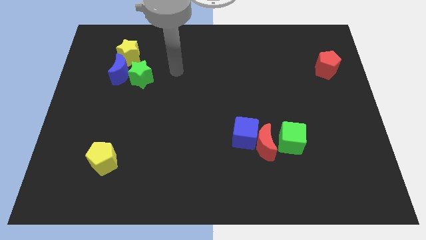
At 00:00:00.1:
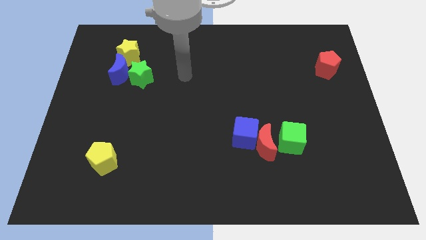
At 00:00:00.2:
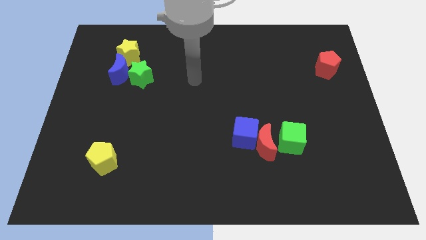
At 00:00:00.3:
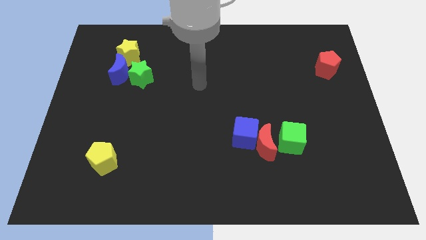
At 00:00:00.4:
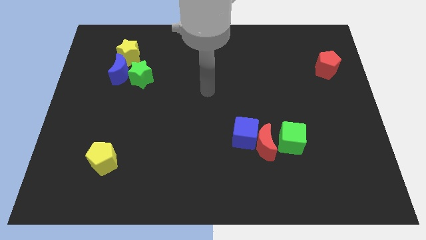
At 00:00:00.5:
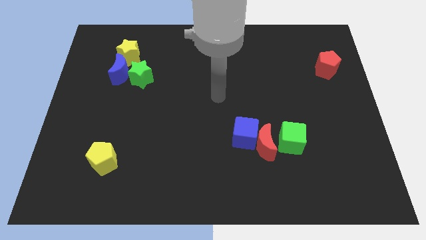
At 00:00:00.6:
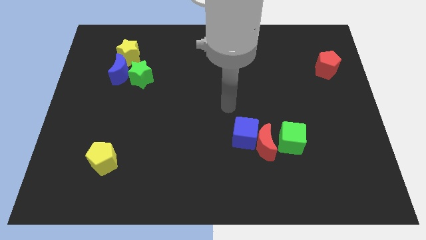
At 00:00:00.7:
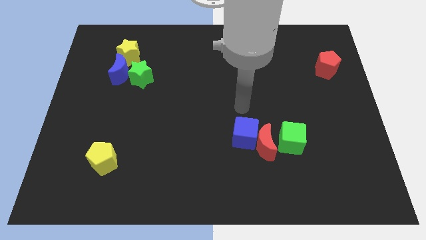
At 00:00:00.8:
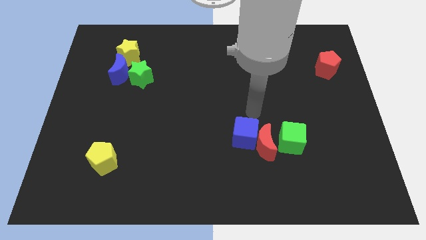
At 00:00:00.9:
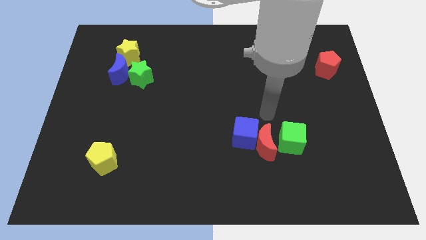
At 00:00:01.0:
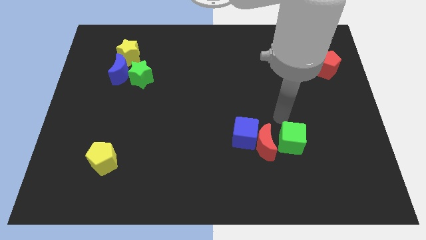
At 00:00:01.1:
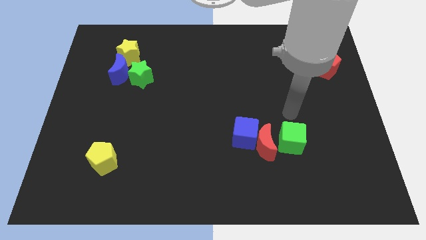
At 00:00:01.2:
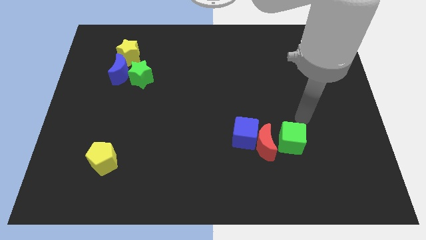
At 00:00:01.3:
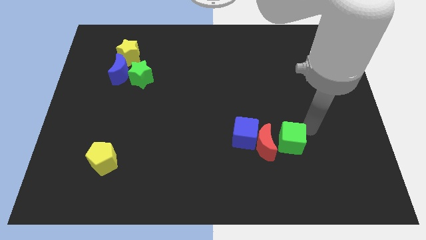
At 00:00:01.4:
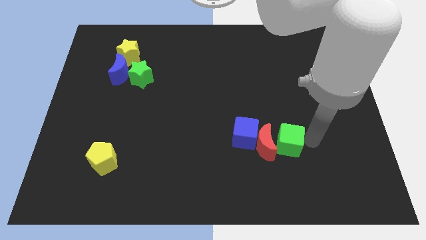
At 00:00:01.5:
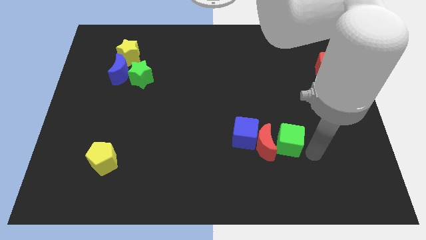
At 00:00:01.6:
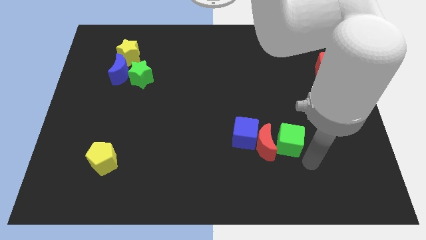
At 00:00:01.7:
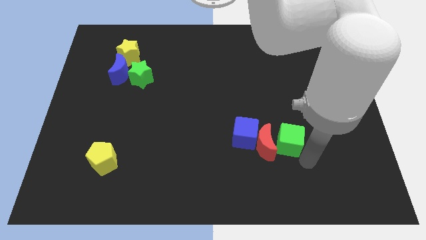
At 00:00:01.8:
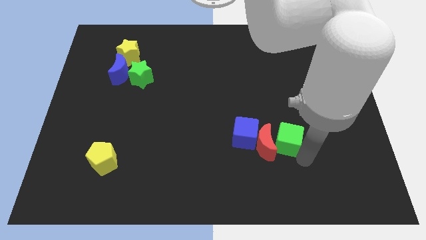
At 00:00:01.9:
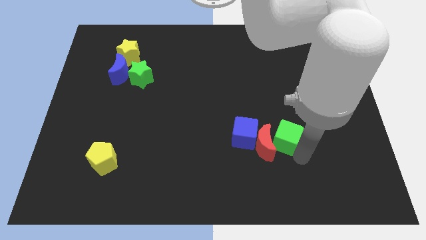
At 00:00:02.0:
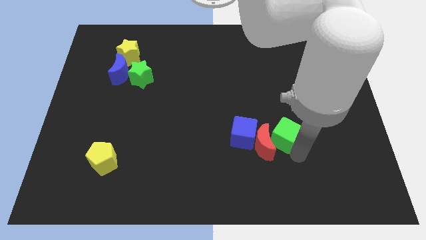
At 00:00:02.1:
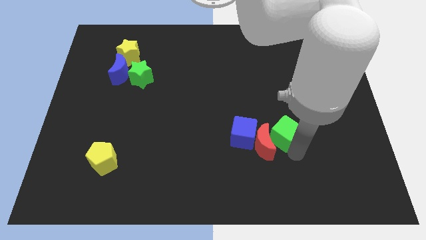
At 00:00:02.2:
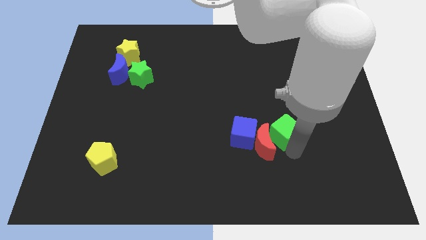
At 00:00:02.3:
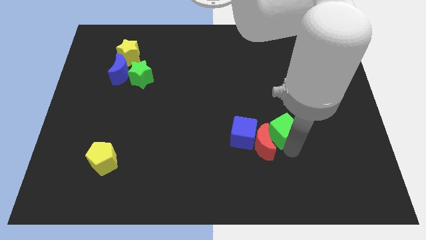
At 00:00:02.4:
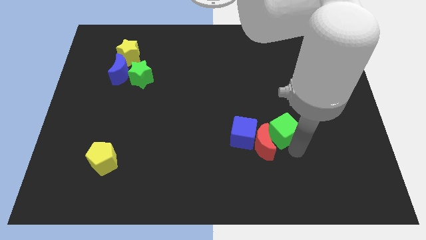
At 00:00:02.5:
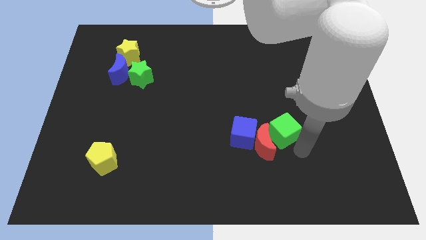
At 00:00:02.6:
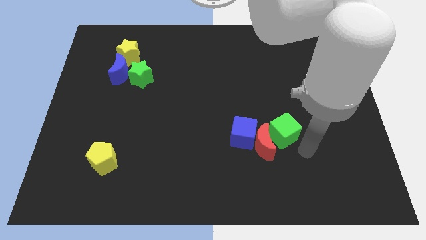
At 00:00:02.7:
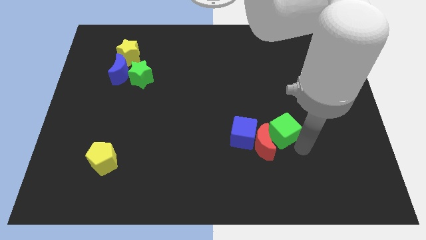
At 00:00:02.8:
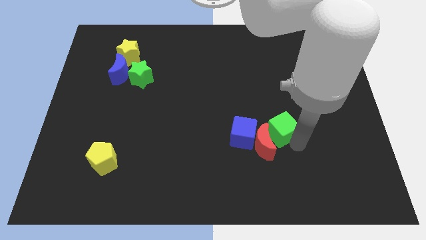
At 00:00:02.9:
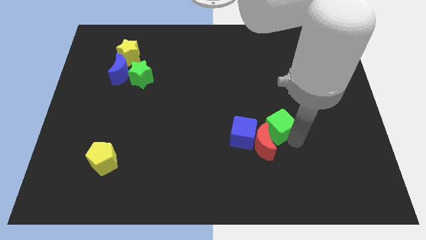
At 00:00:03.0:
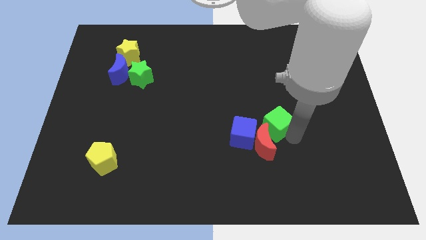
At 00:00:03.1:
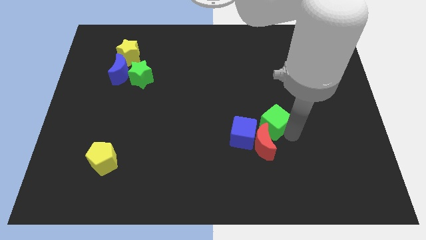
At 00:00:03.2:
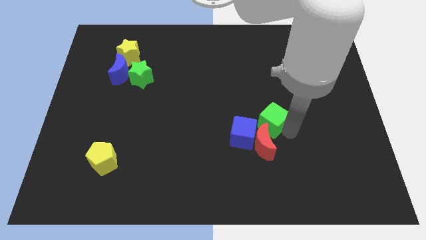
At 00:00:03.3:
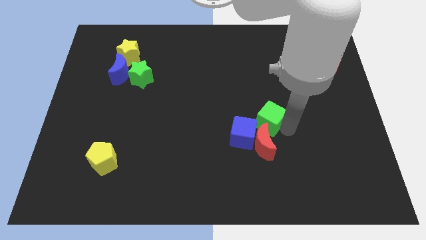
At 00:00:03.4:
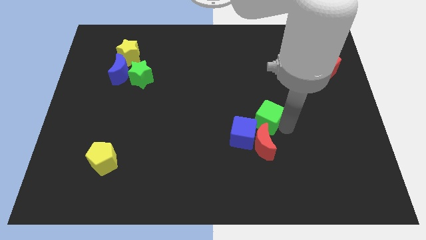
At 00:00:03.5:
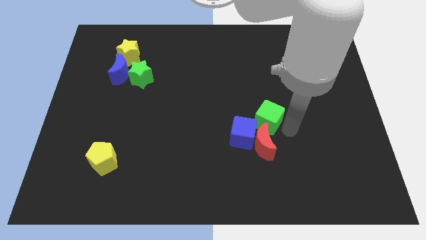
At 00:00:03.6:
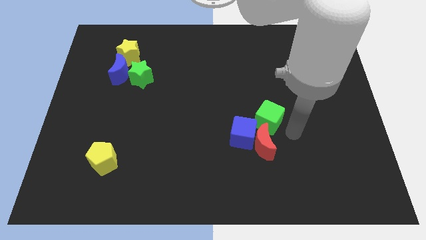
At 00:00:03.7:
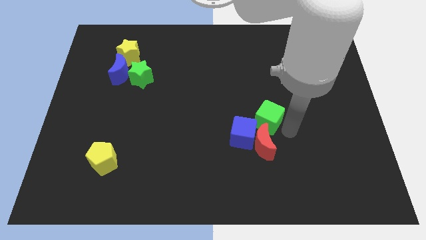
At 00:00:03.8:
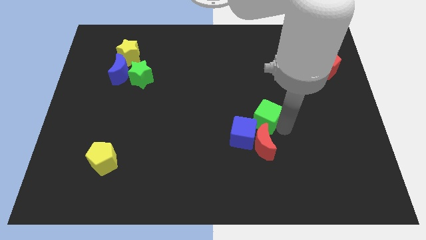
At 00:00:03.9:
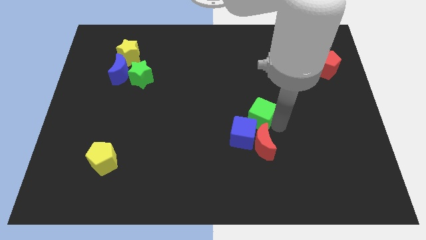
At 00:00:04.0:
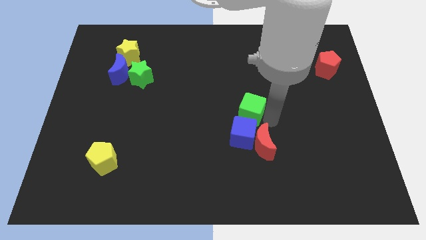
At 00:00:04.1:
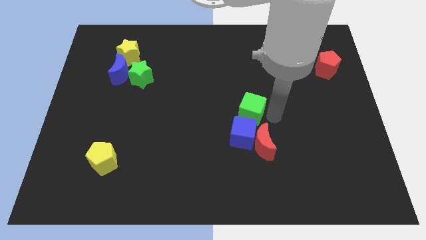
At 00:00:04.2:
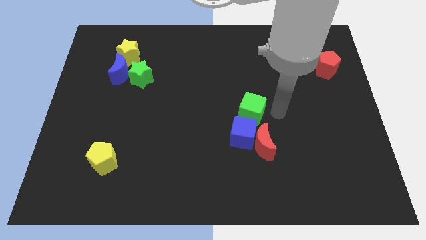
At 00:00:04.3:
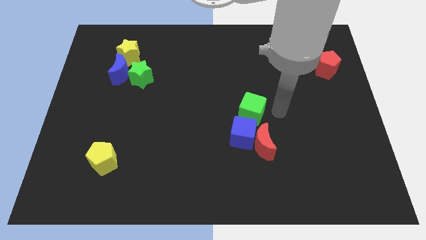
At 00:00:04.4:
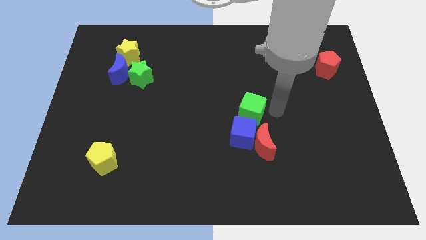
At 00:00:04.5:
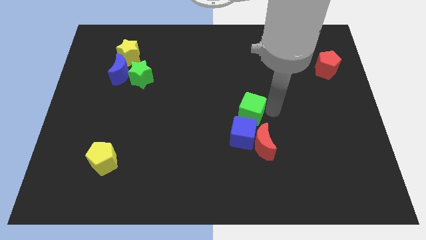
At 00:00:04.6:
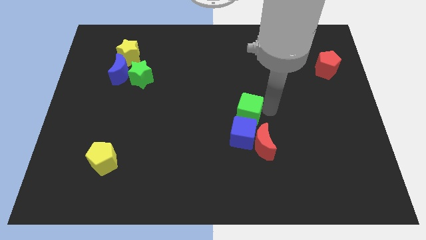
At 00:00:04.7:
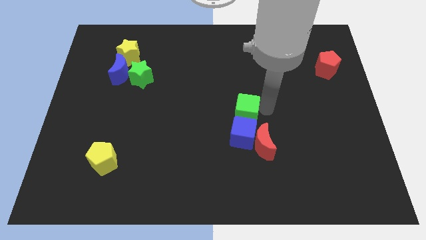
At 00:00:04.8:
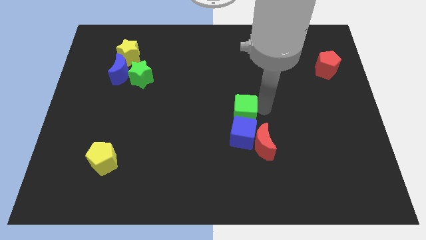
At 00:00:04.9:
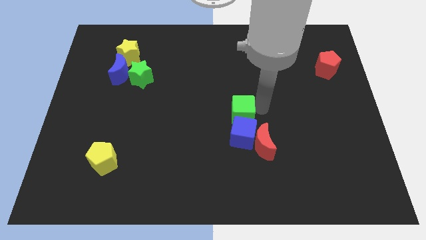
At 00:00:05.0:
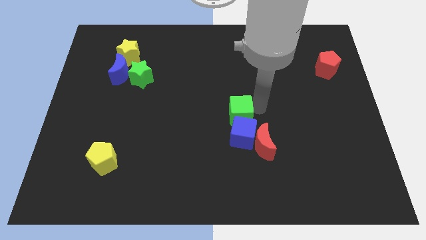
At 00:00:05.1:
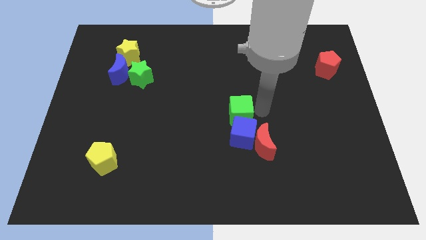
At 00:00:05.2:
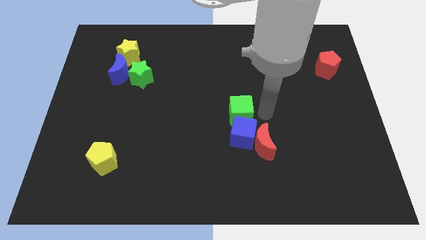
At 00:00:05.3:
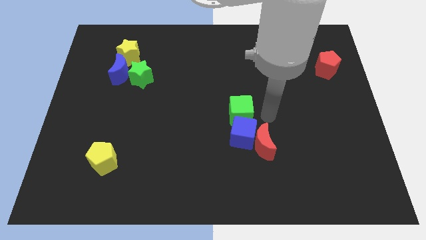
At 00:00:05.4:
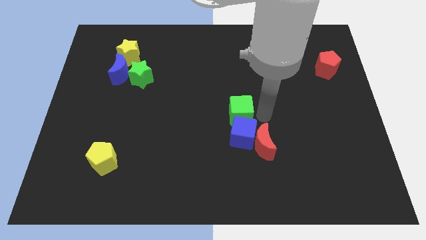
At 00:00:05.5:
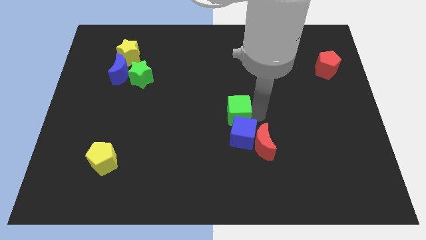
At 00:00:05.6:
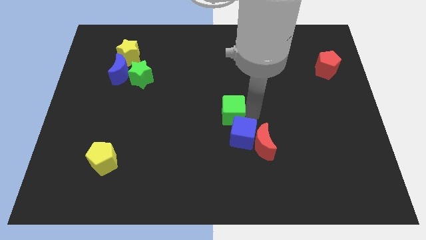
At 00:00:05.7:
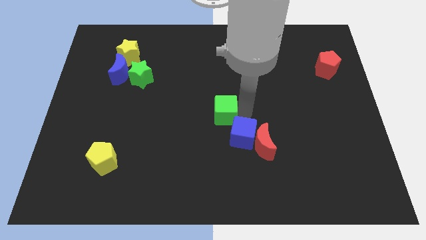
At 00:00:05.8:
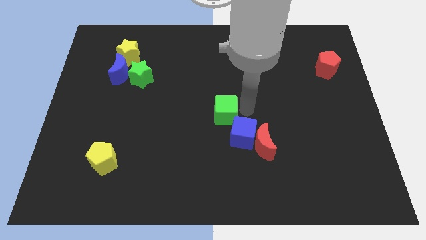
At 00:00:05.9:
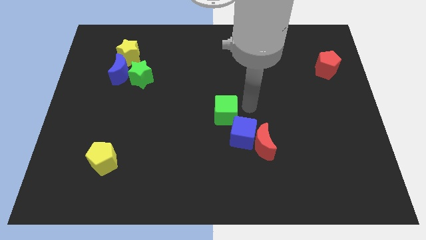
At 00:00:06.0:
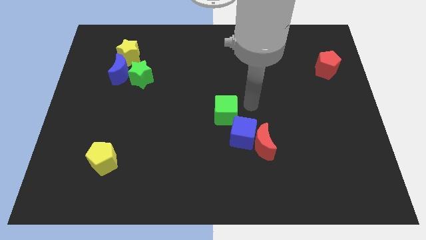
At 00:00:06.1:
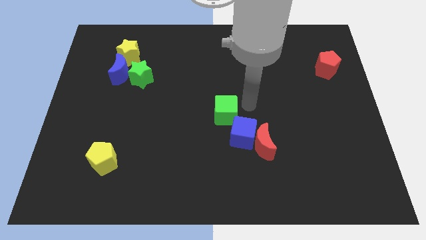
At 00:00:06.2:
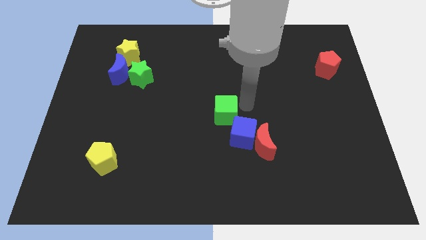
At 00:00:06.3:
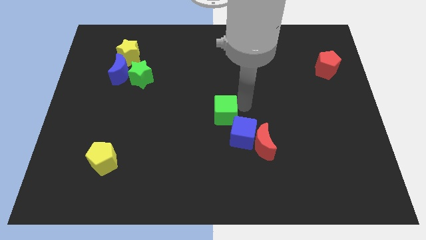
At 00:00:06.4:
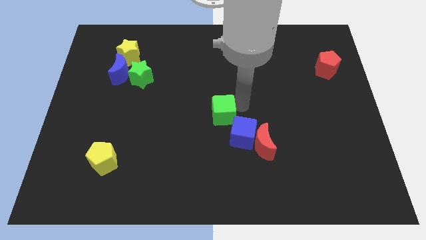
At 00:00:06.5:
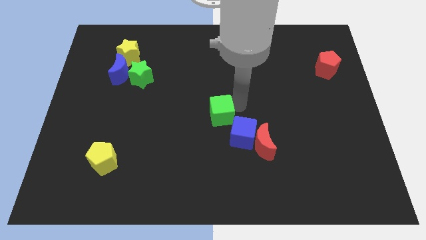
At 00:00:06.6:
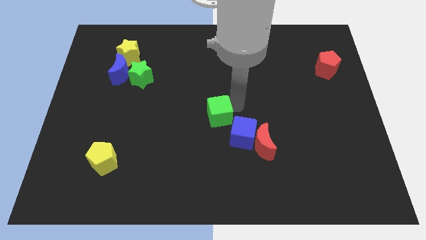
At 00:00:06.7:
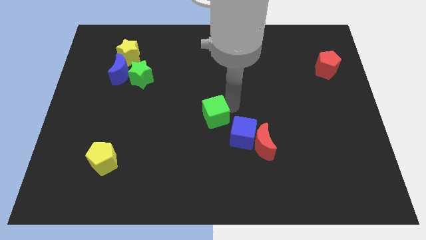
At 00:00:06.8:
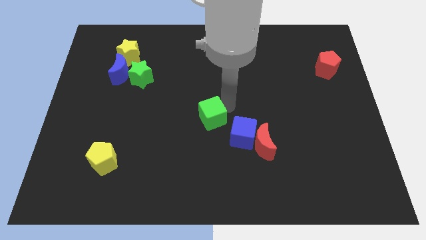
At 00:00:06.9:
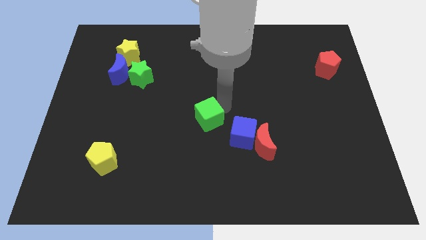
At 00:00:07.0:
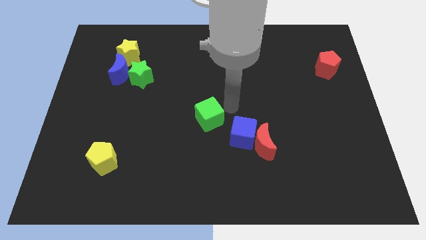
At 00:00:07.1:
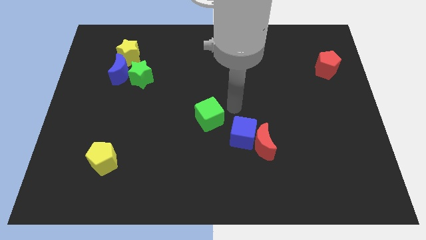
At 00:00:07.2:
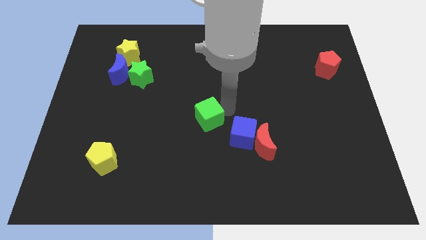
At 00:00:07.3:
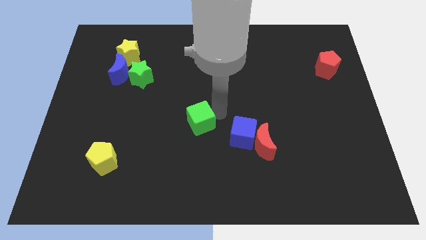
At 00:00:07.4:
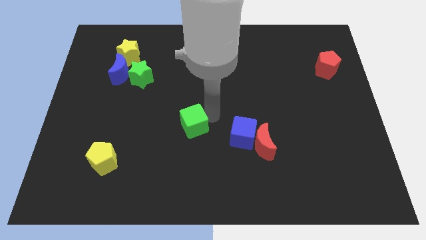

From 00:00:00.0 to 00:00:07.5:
slide the green cube left

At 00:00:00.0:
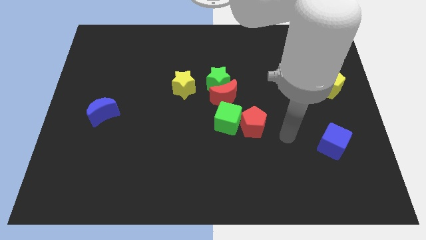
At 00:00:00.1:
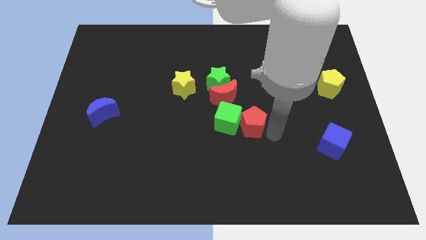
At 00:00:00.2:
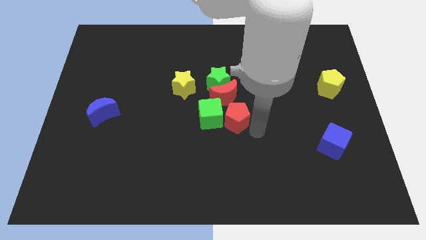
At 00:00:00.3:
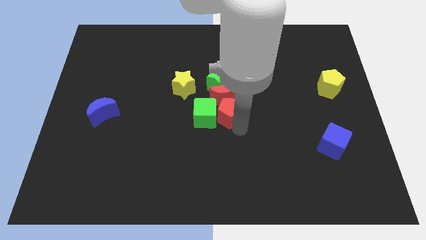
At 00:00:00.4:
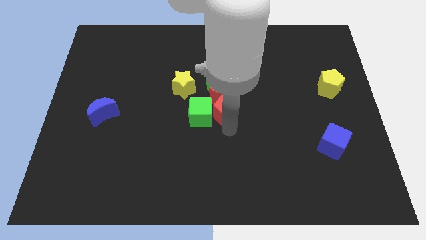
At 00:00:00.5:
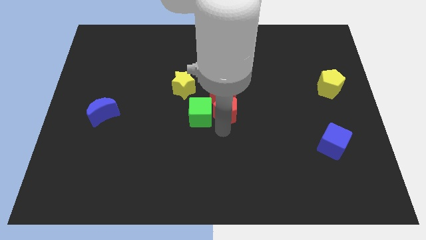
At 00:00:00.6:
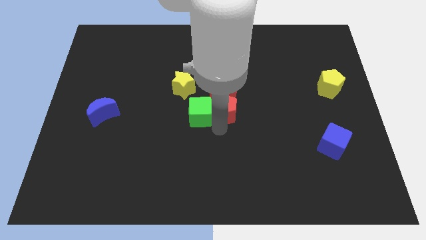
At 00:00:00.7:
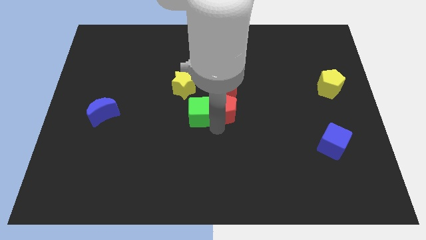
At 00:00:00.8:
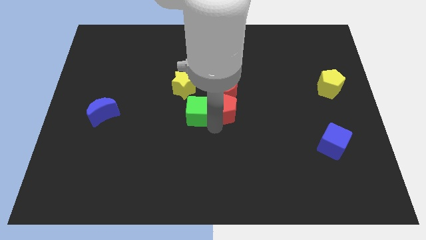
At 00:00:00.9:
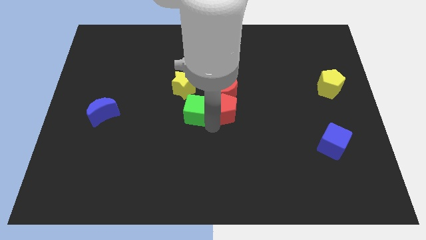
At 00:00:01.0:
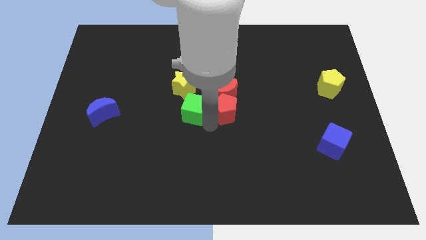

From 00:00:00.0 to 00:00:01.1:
move the green cube slightly diagonally upwards and left
